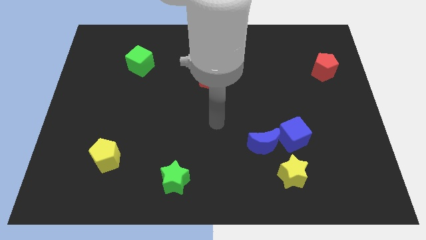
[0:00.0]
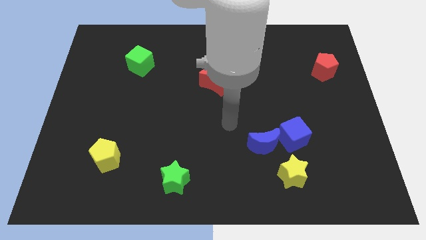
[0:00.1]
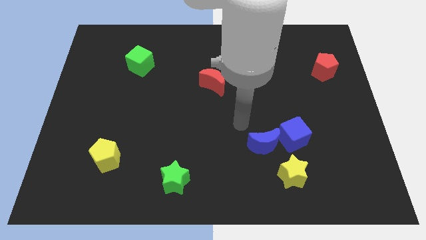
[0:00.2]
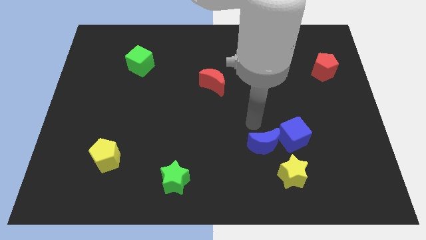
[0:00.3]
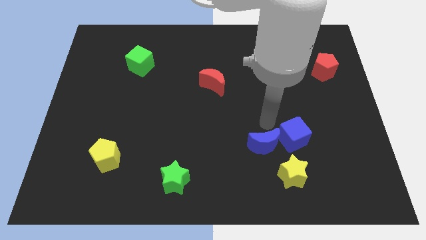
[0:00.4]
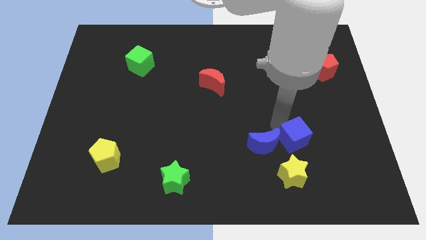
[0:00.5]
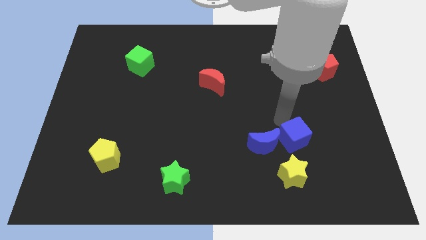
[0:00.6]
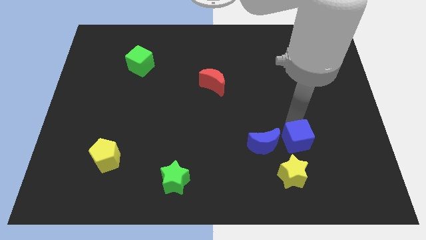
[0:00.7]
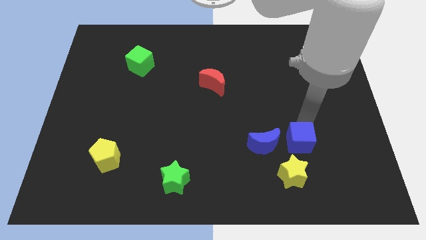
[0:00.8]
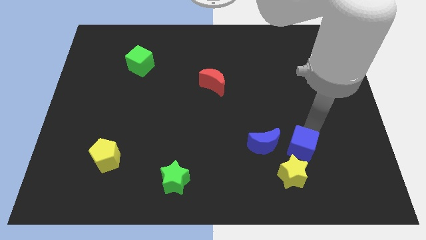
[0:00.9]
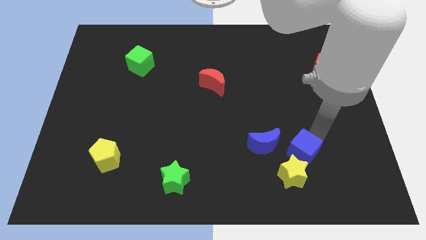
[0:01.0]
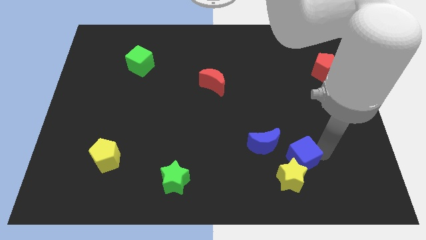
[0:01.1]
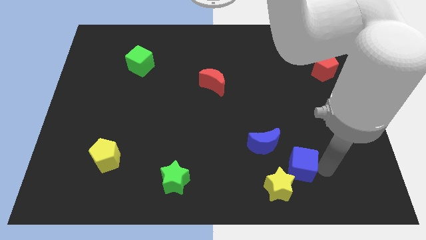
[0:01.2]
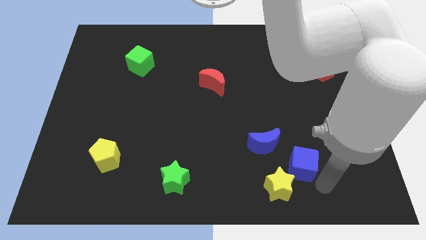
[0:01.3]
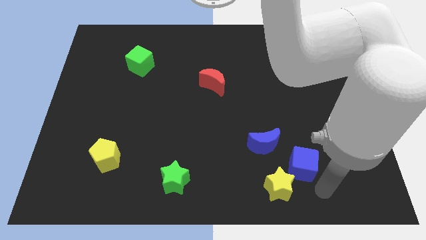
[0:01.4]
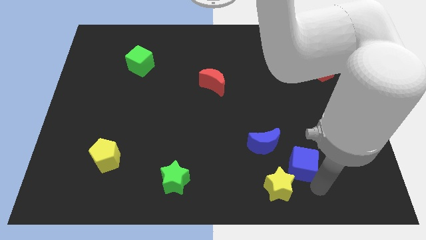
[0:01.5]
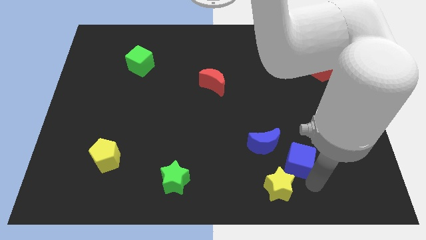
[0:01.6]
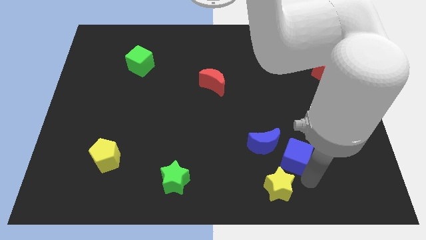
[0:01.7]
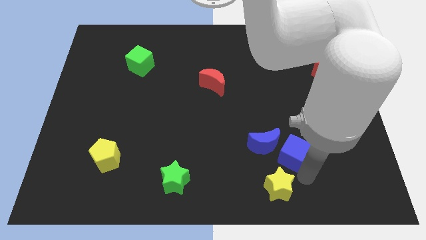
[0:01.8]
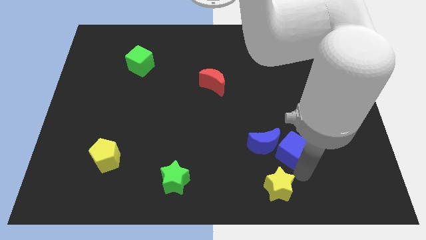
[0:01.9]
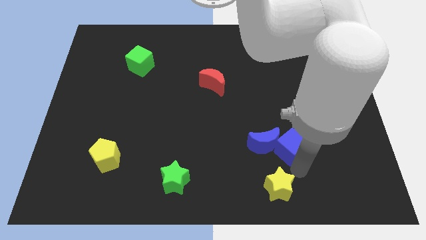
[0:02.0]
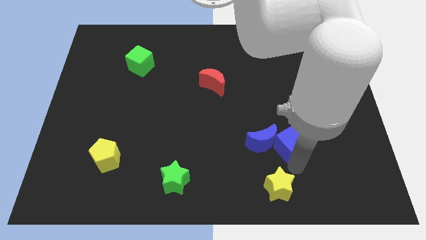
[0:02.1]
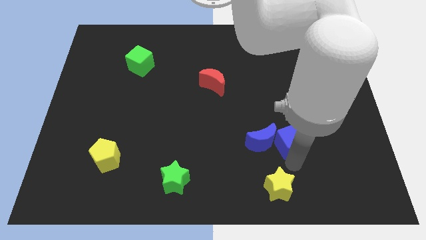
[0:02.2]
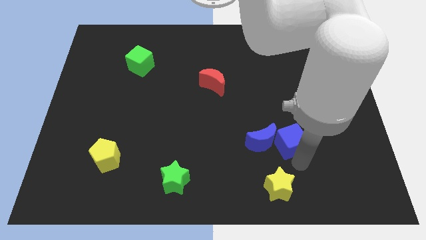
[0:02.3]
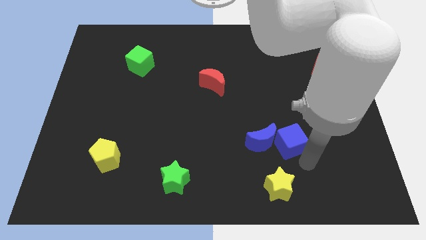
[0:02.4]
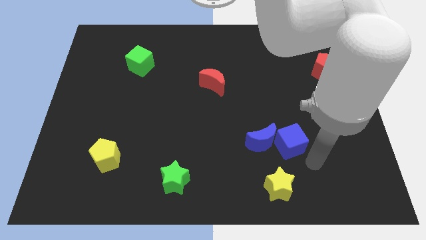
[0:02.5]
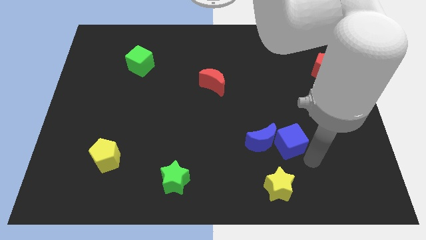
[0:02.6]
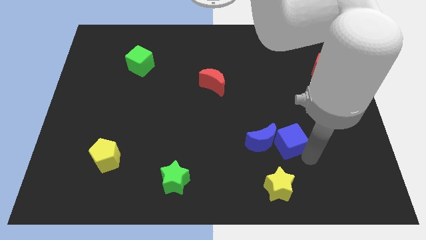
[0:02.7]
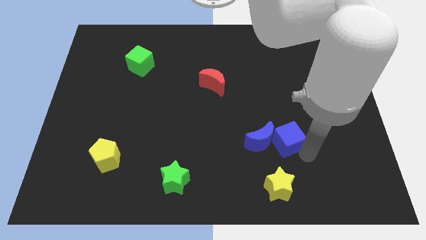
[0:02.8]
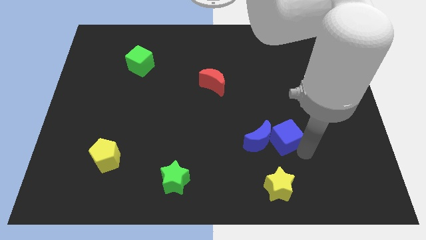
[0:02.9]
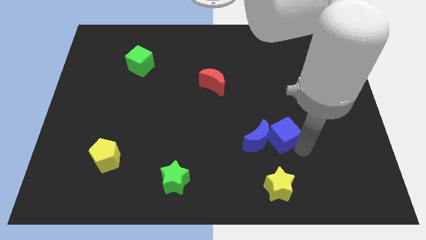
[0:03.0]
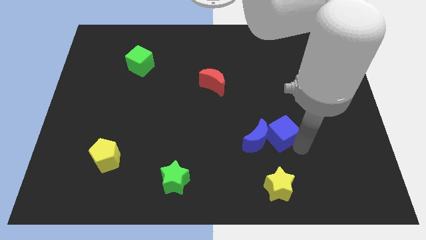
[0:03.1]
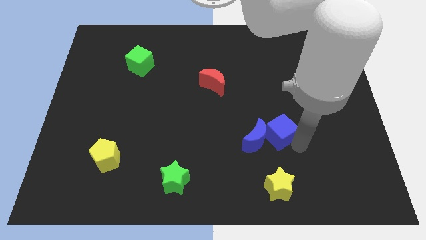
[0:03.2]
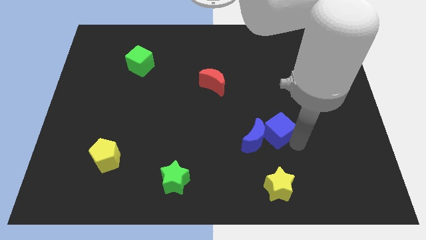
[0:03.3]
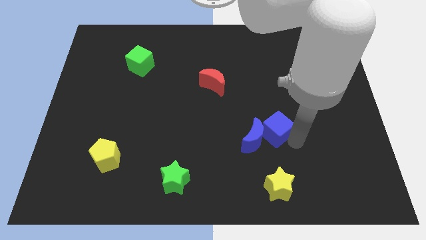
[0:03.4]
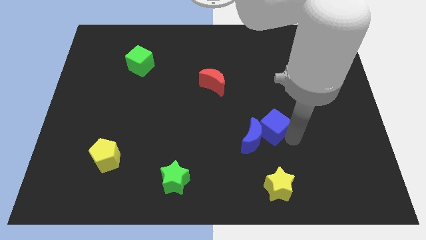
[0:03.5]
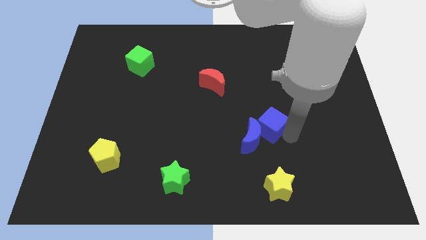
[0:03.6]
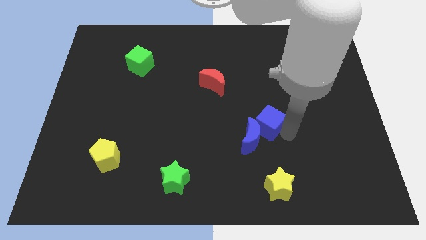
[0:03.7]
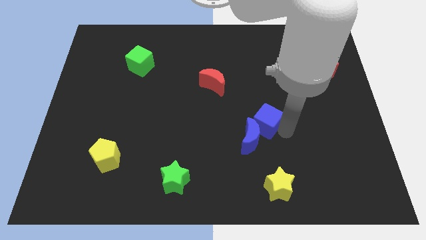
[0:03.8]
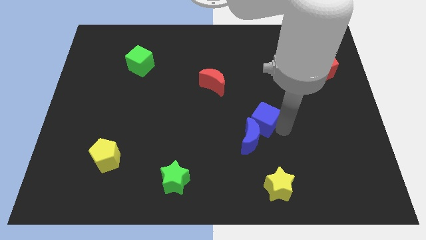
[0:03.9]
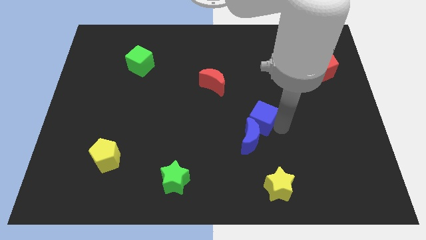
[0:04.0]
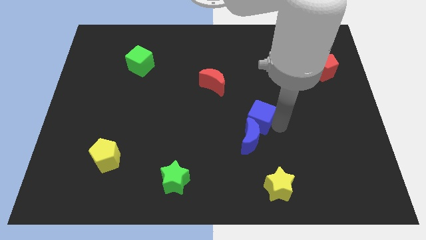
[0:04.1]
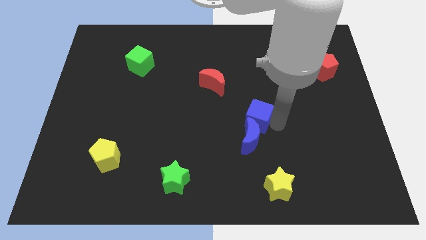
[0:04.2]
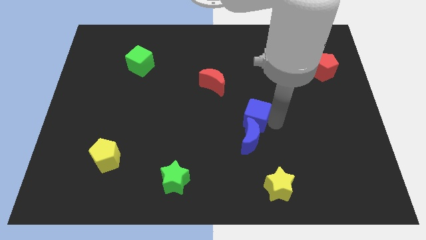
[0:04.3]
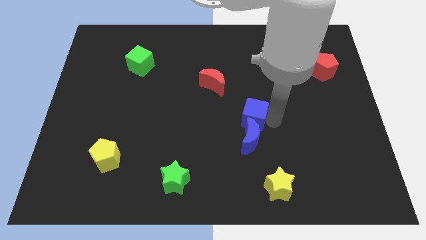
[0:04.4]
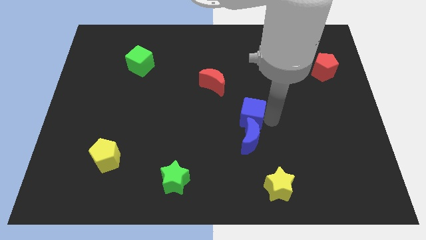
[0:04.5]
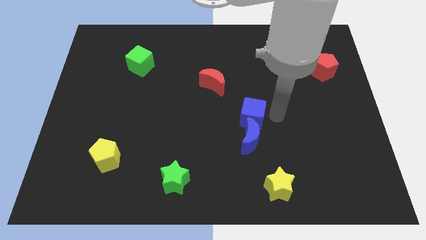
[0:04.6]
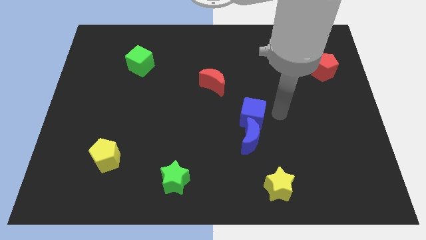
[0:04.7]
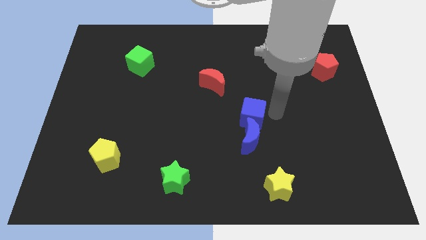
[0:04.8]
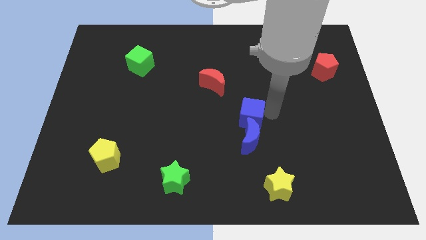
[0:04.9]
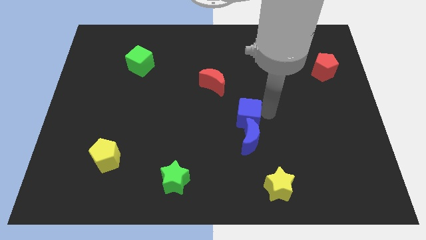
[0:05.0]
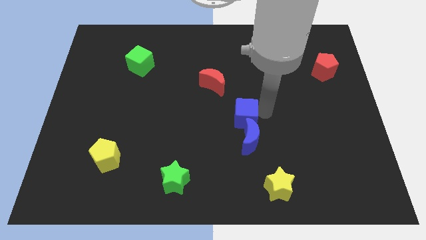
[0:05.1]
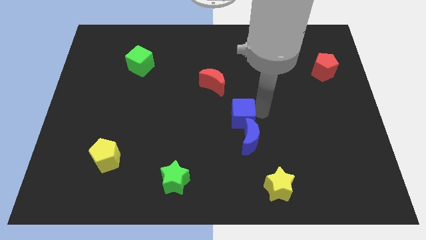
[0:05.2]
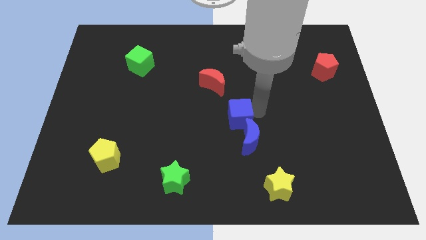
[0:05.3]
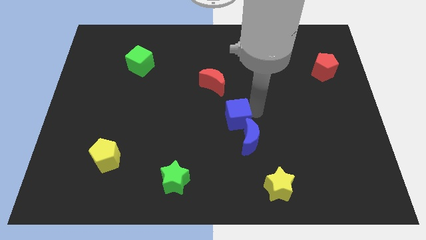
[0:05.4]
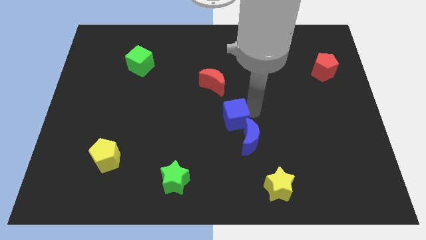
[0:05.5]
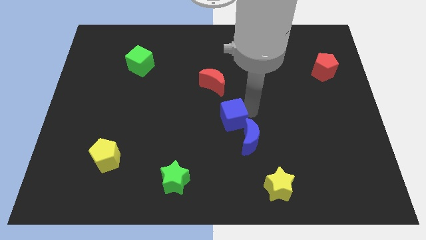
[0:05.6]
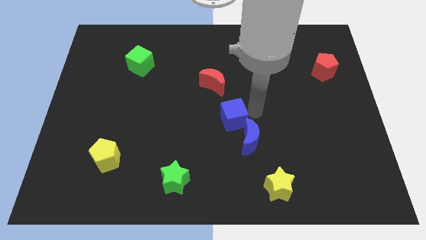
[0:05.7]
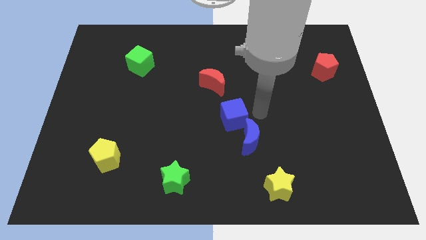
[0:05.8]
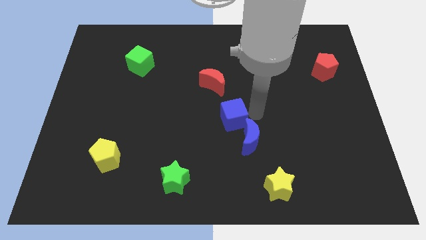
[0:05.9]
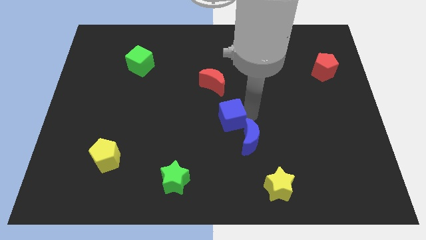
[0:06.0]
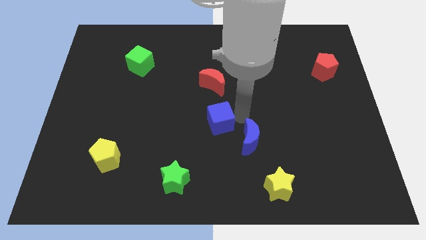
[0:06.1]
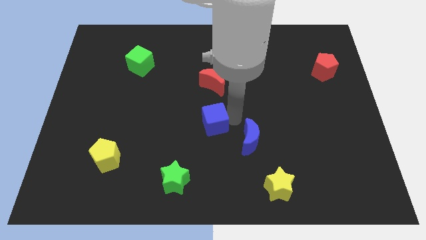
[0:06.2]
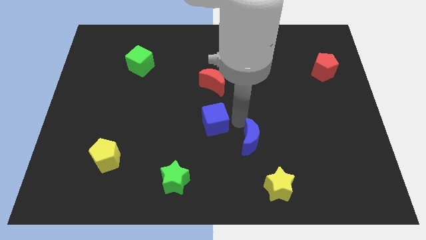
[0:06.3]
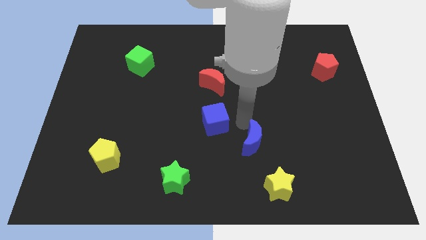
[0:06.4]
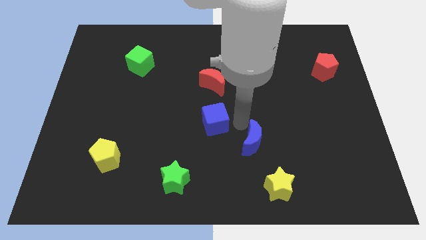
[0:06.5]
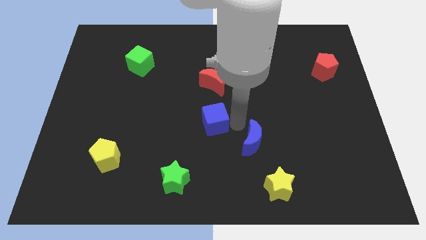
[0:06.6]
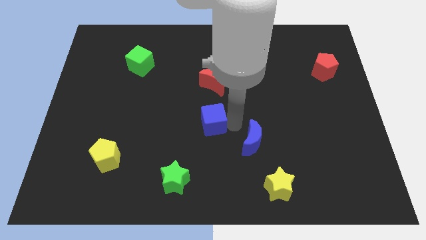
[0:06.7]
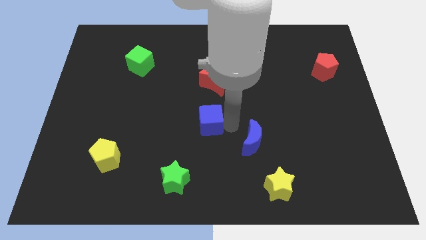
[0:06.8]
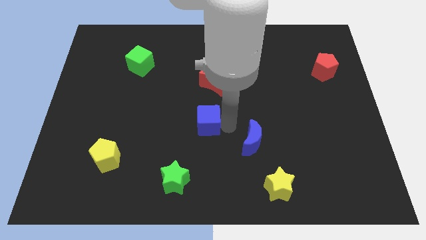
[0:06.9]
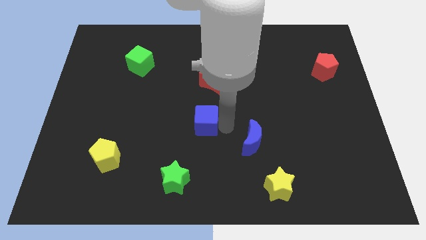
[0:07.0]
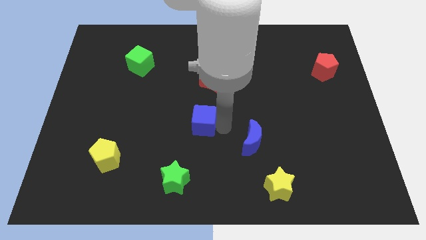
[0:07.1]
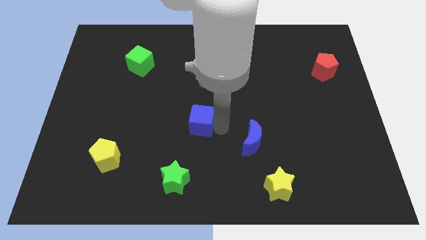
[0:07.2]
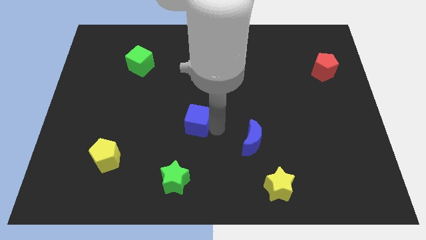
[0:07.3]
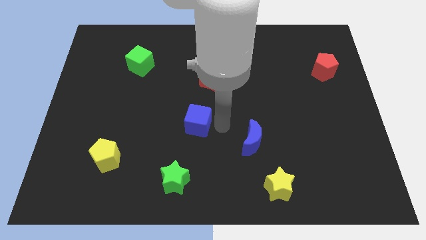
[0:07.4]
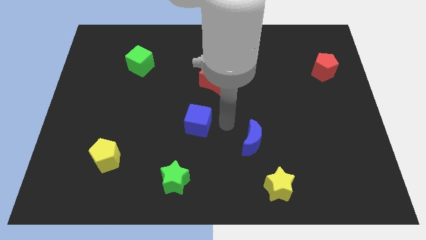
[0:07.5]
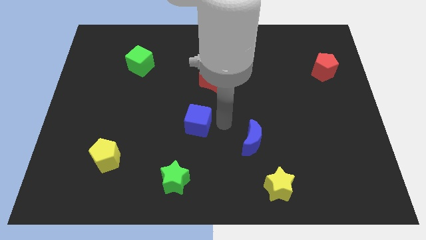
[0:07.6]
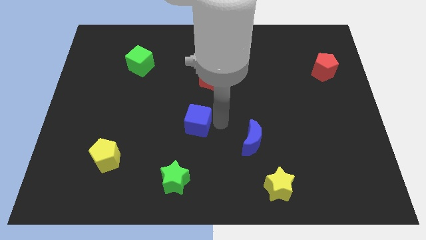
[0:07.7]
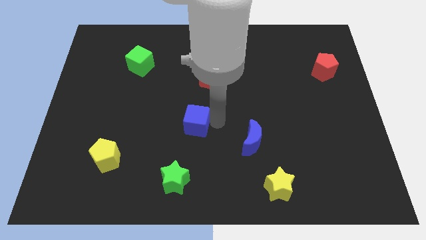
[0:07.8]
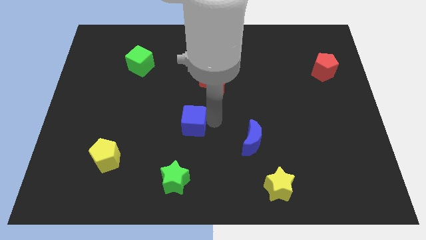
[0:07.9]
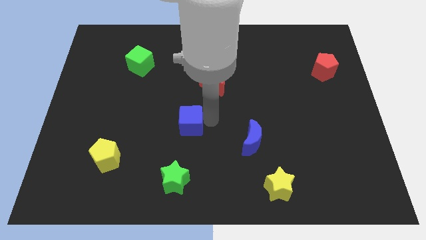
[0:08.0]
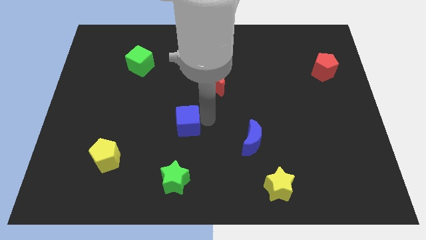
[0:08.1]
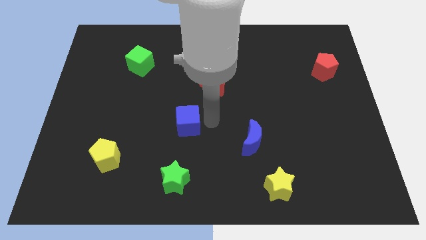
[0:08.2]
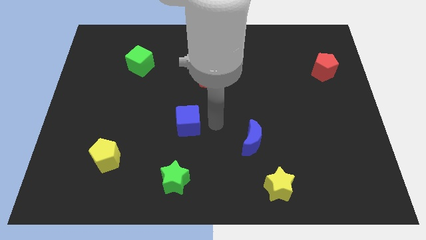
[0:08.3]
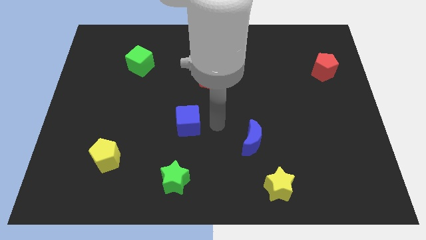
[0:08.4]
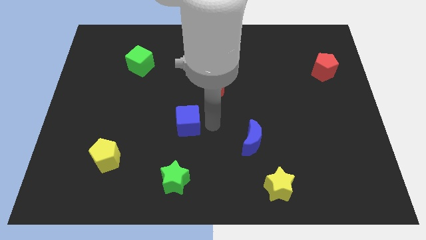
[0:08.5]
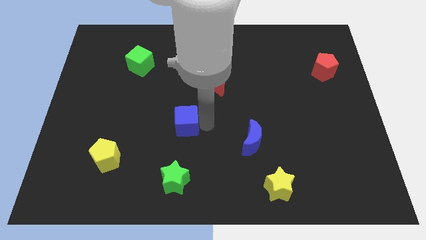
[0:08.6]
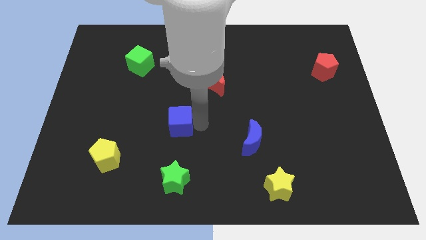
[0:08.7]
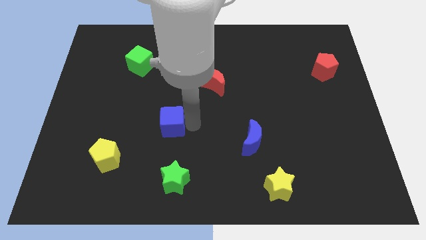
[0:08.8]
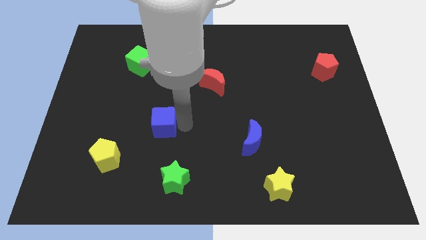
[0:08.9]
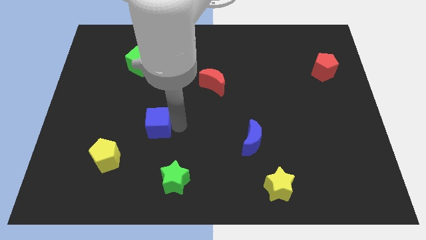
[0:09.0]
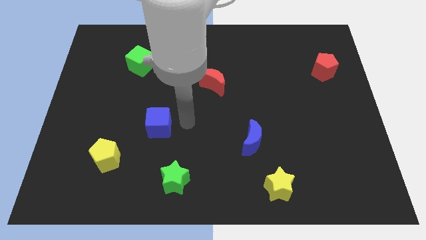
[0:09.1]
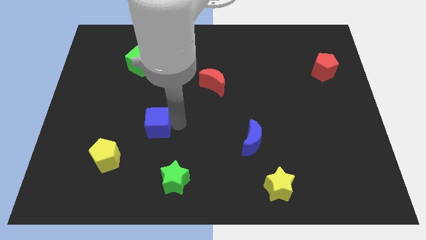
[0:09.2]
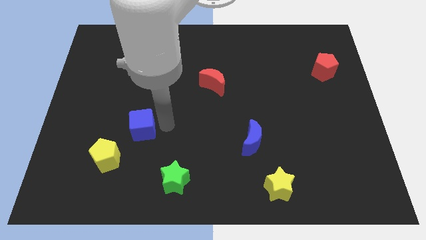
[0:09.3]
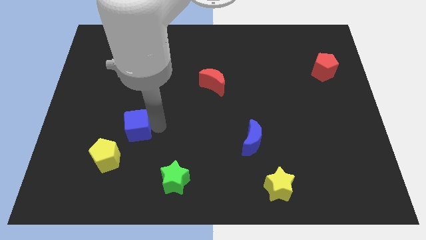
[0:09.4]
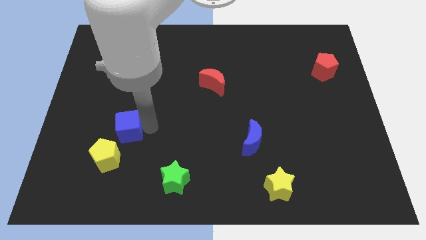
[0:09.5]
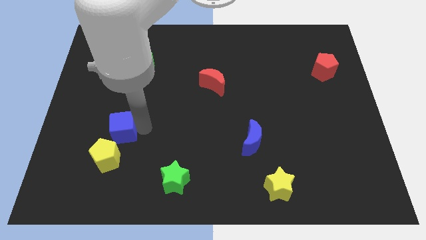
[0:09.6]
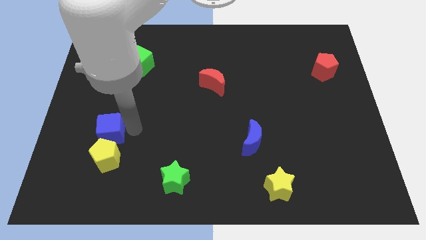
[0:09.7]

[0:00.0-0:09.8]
push the blue cube to the top left side of the yellow pentagon
